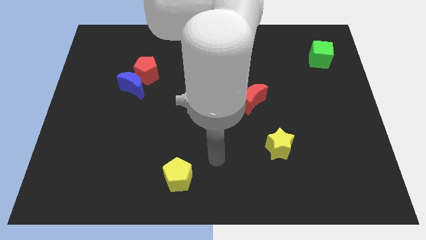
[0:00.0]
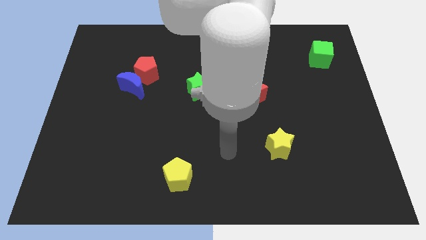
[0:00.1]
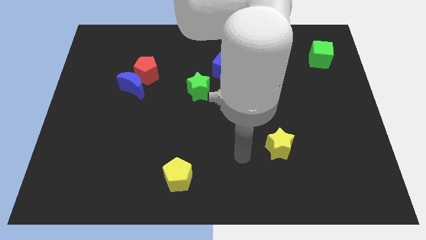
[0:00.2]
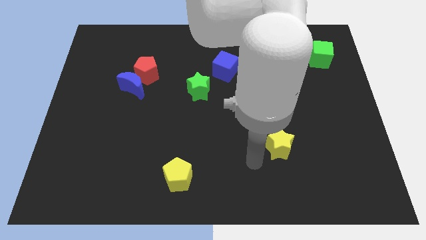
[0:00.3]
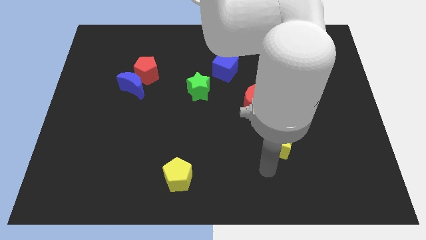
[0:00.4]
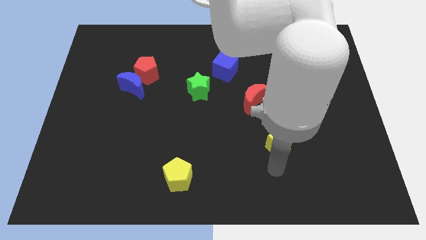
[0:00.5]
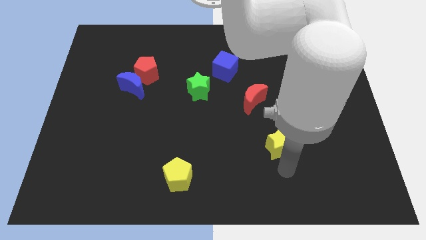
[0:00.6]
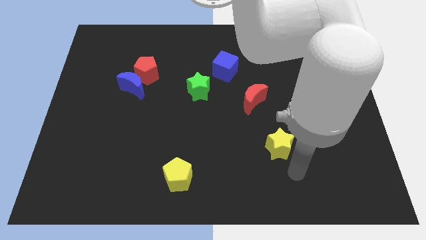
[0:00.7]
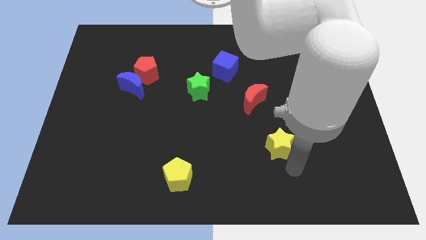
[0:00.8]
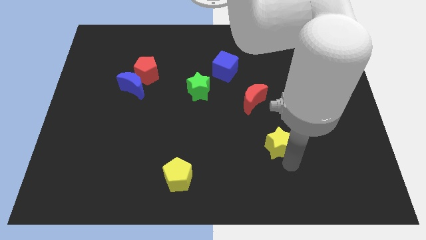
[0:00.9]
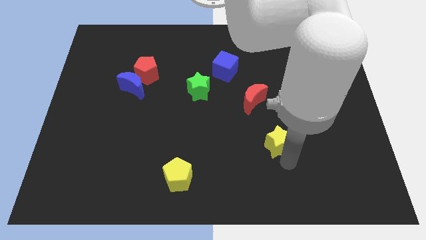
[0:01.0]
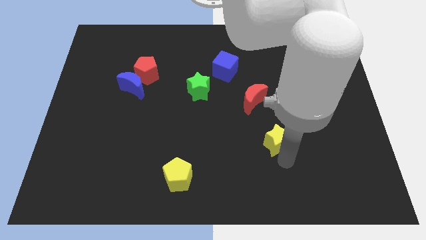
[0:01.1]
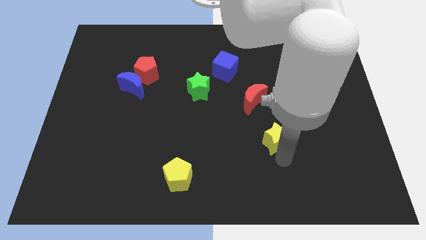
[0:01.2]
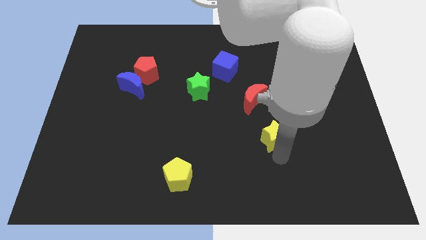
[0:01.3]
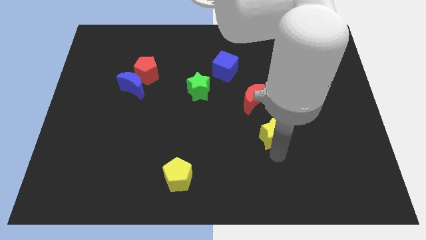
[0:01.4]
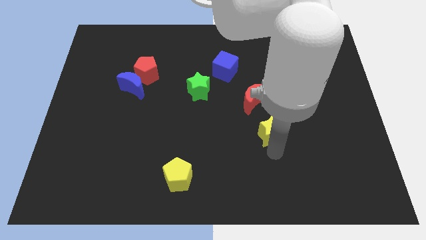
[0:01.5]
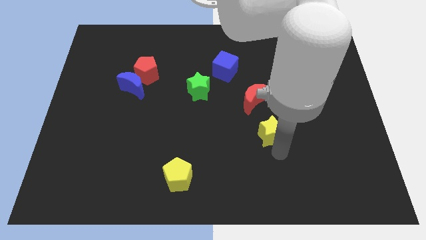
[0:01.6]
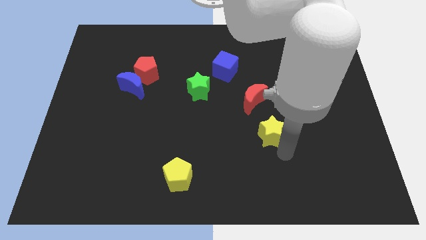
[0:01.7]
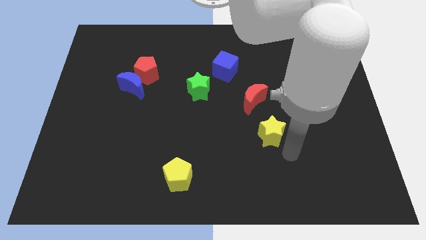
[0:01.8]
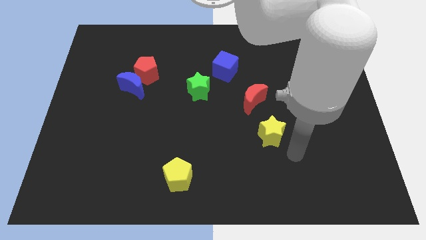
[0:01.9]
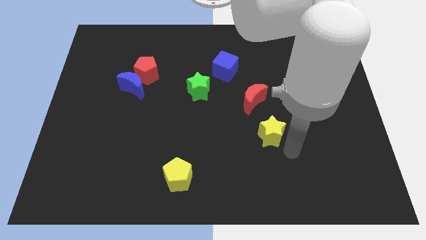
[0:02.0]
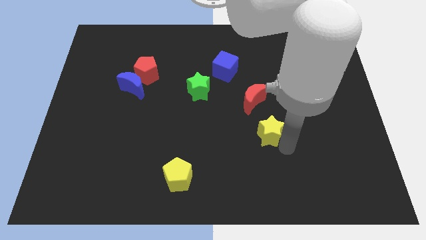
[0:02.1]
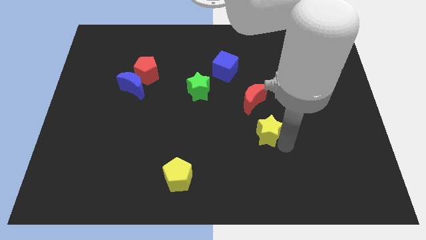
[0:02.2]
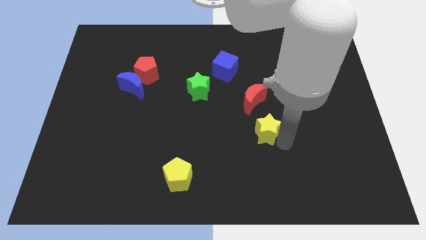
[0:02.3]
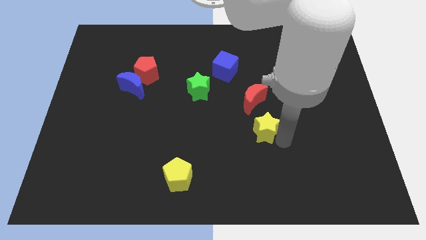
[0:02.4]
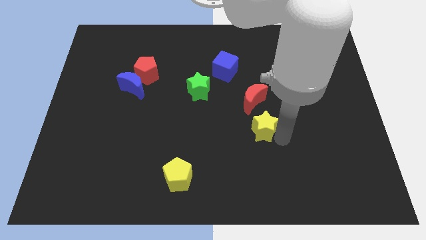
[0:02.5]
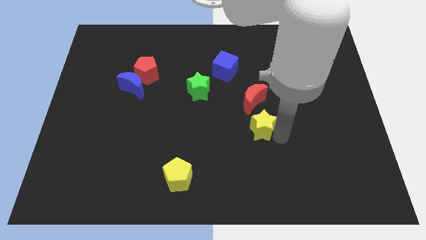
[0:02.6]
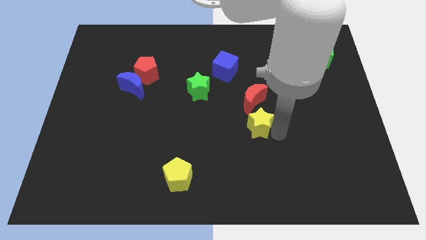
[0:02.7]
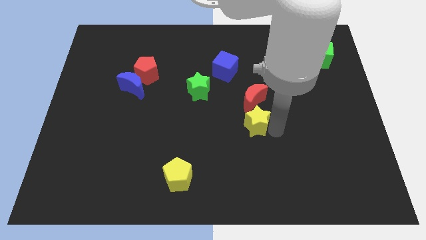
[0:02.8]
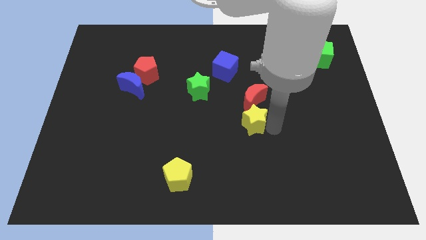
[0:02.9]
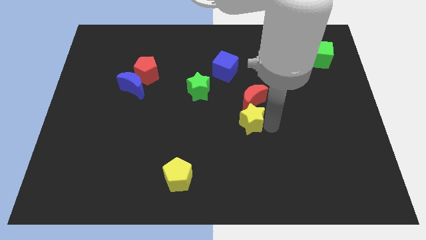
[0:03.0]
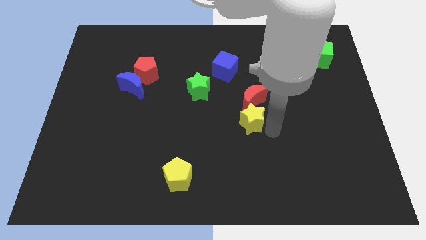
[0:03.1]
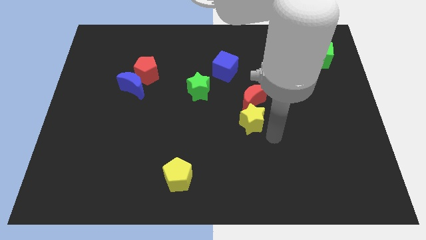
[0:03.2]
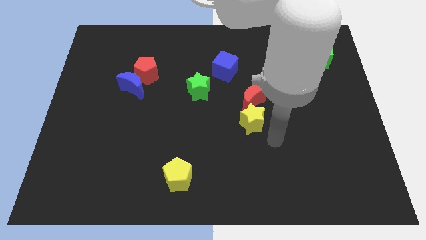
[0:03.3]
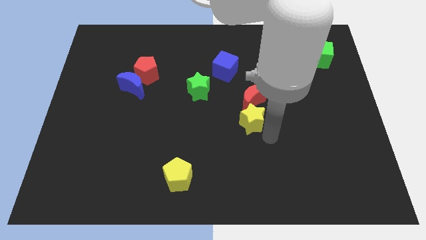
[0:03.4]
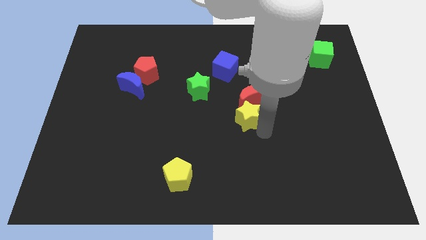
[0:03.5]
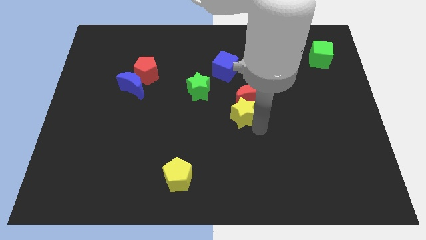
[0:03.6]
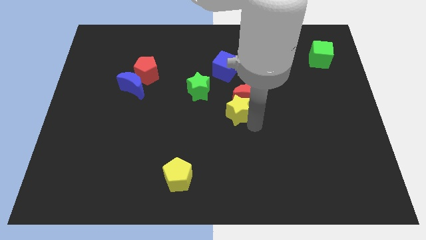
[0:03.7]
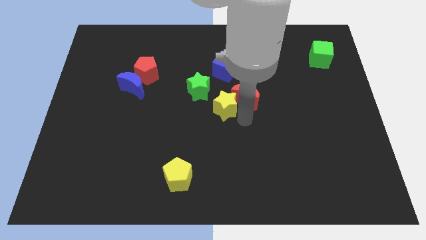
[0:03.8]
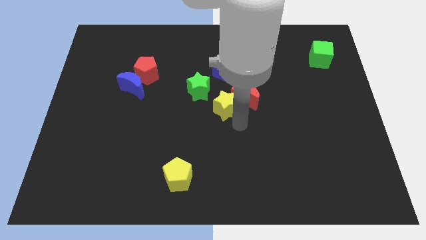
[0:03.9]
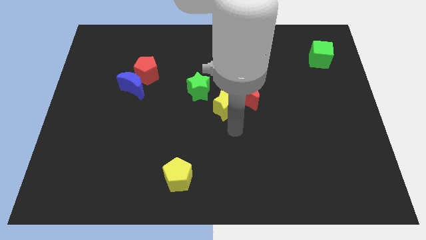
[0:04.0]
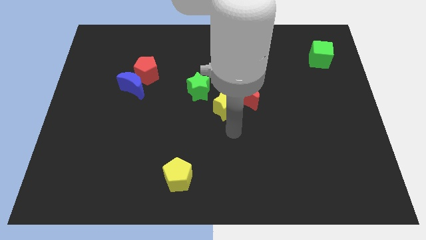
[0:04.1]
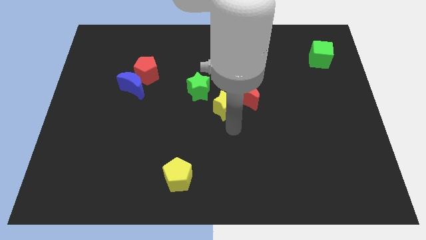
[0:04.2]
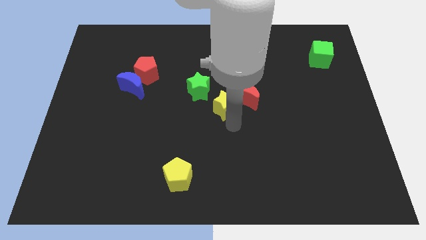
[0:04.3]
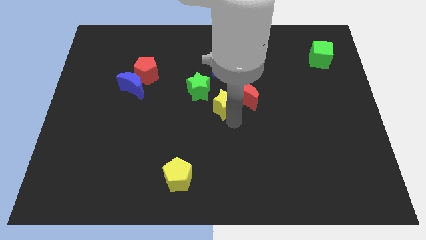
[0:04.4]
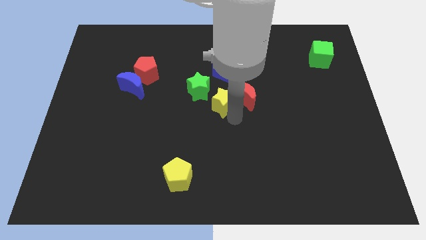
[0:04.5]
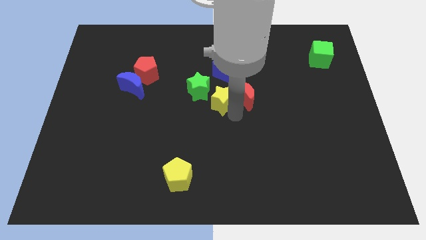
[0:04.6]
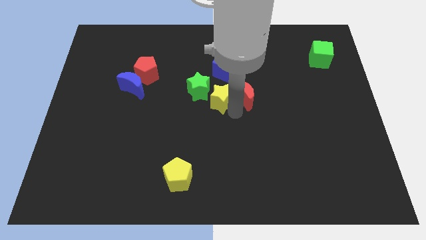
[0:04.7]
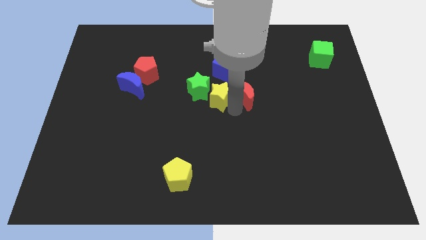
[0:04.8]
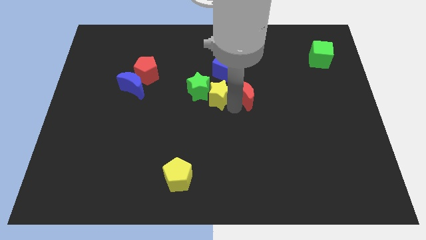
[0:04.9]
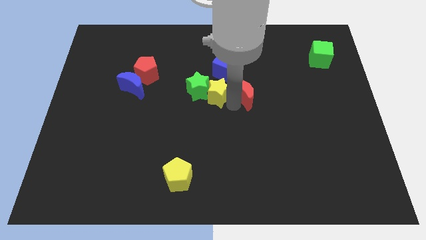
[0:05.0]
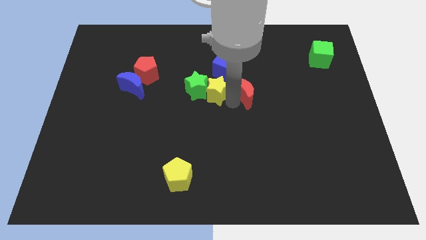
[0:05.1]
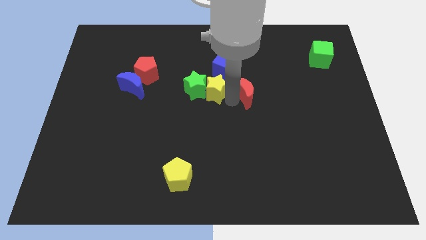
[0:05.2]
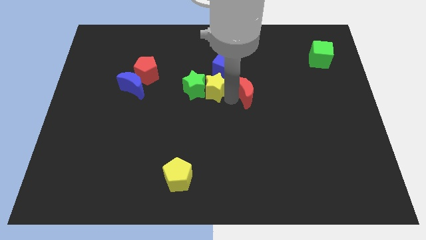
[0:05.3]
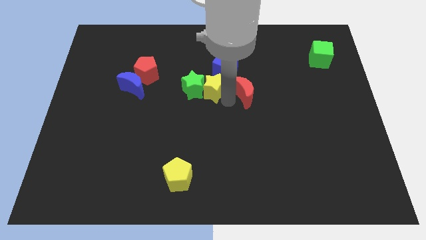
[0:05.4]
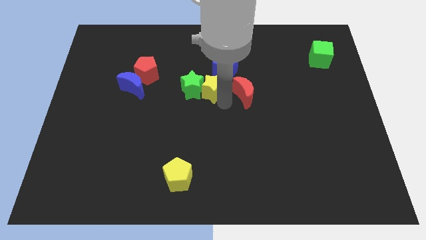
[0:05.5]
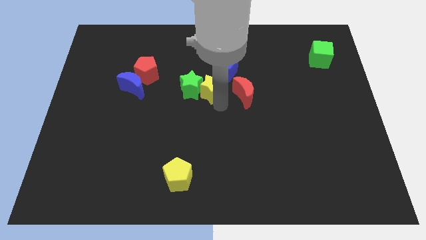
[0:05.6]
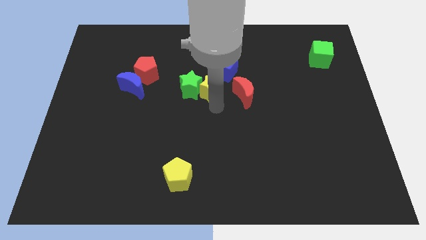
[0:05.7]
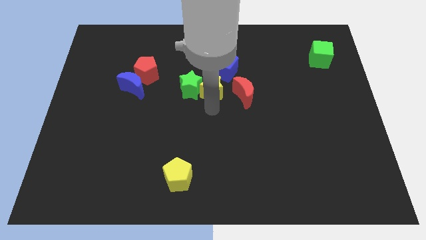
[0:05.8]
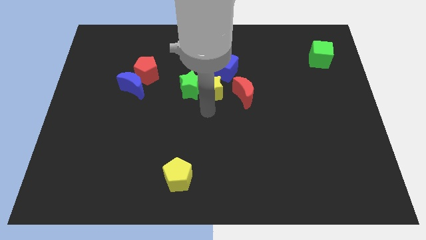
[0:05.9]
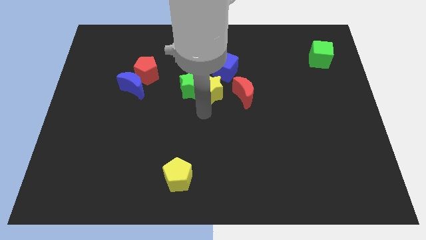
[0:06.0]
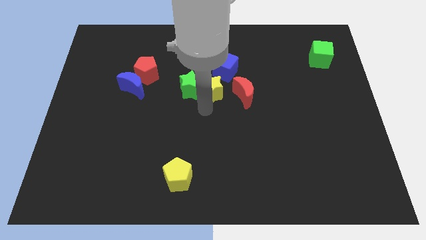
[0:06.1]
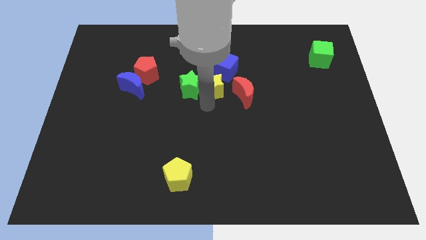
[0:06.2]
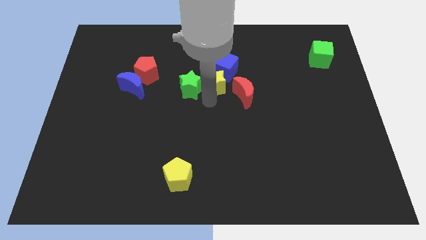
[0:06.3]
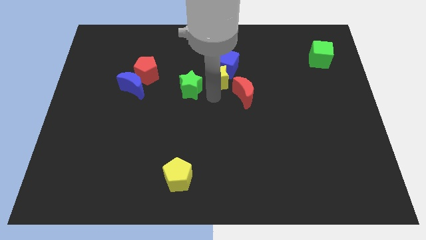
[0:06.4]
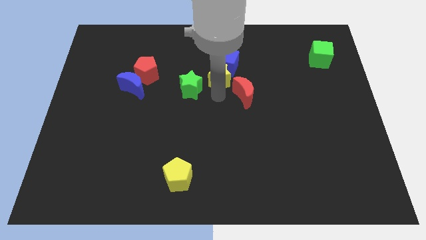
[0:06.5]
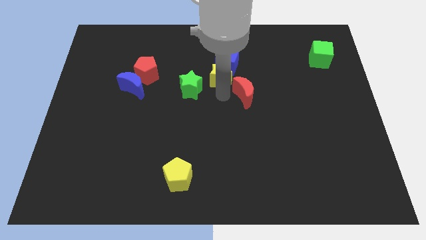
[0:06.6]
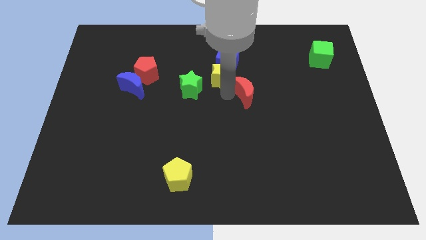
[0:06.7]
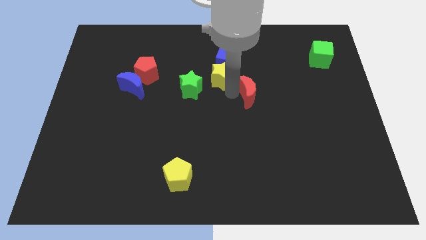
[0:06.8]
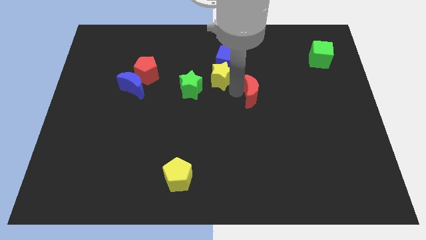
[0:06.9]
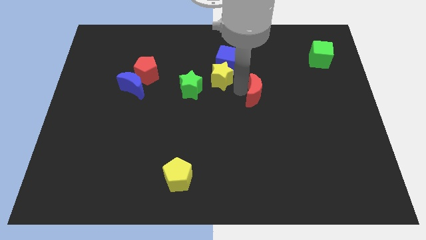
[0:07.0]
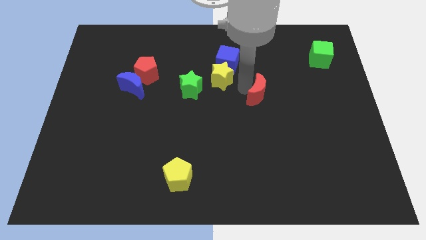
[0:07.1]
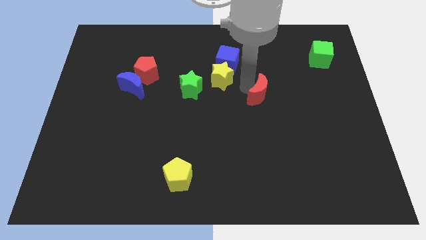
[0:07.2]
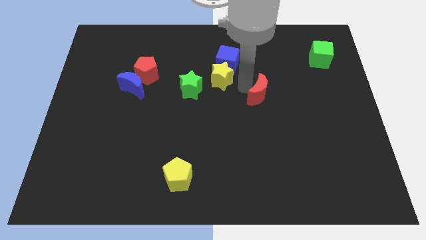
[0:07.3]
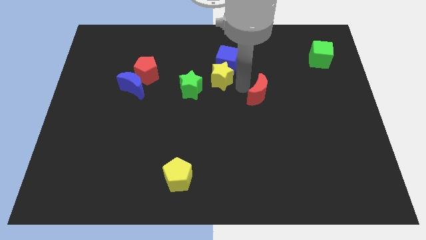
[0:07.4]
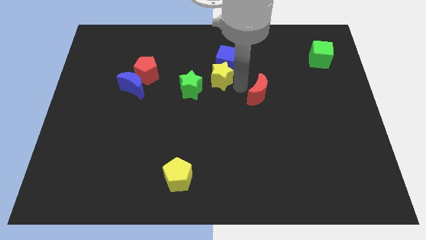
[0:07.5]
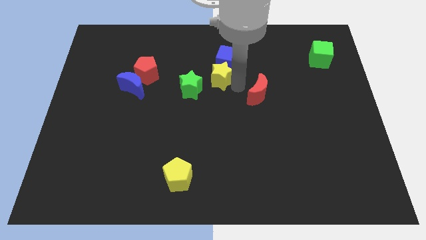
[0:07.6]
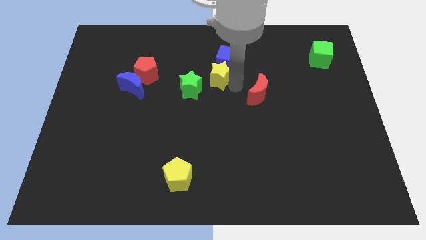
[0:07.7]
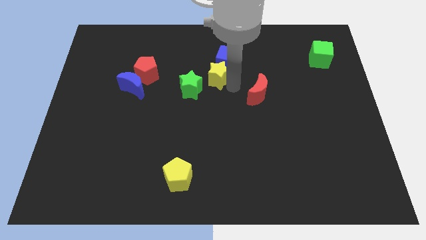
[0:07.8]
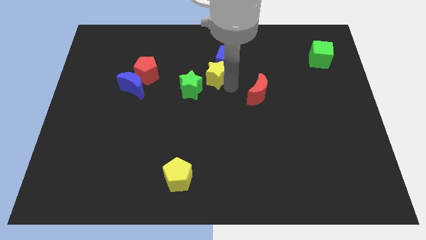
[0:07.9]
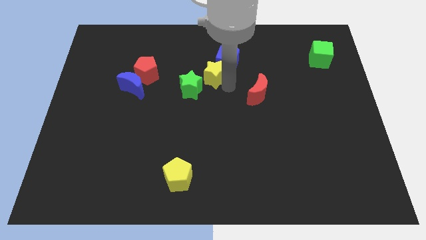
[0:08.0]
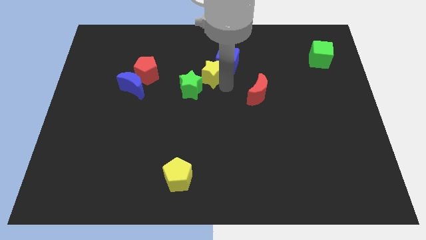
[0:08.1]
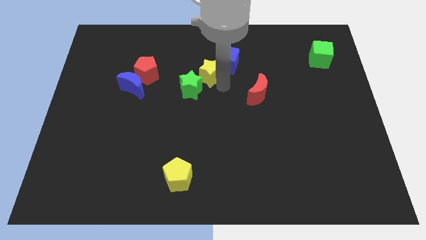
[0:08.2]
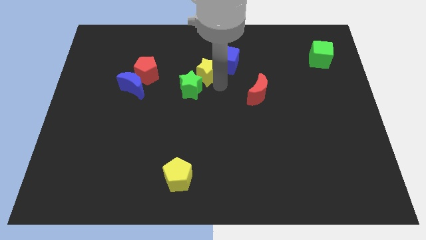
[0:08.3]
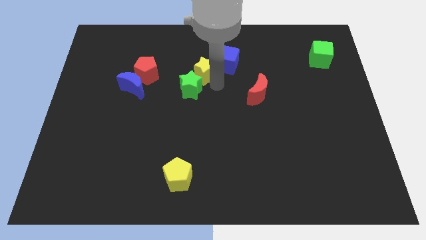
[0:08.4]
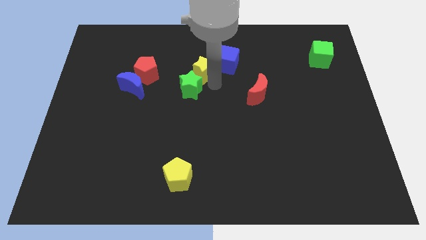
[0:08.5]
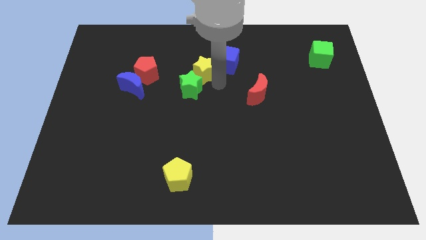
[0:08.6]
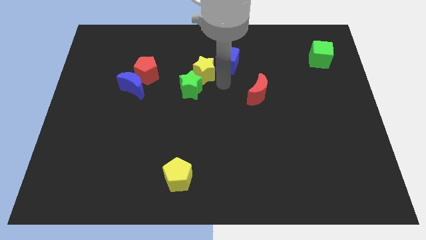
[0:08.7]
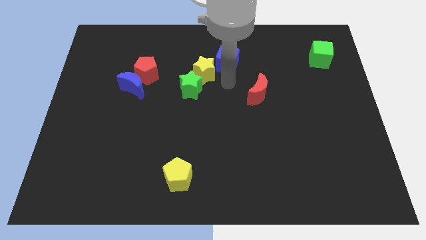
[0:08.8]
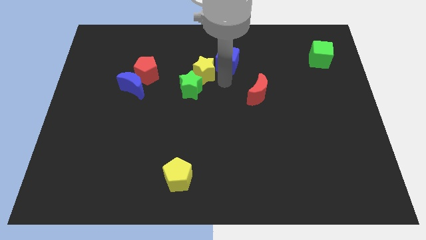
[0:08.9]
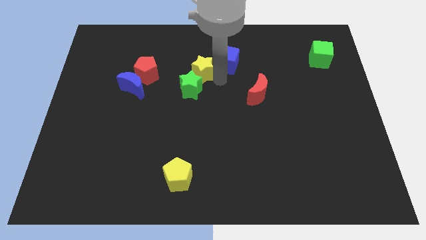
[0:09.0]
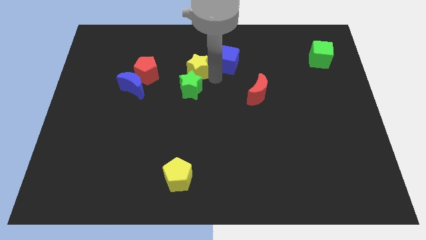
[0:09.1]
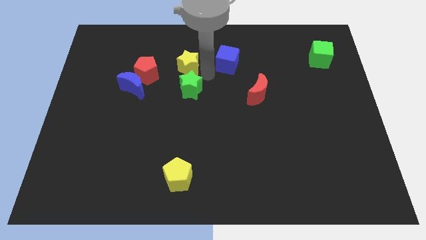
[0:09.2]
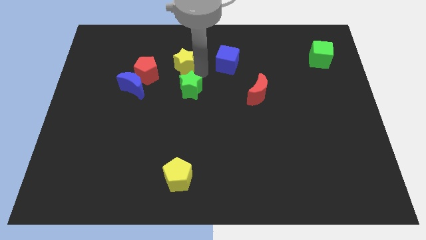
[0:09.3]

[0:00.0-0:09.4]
push the yellow star diagonally up and to the right of the red pentagon
